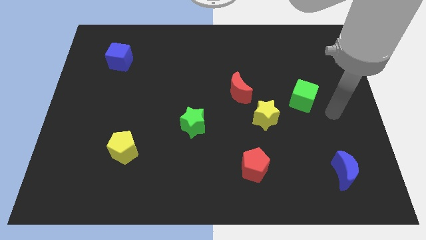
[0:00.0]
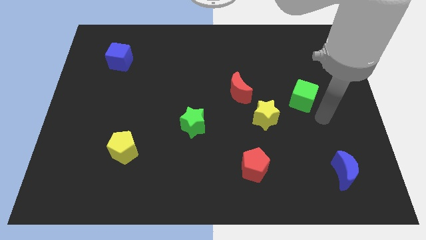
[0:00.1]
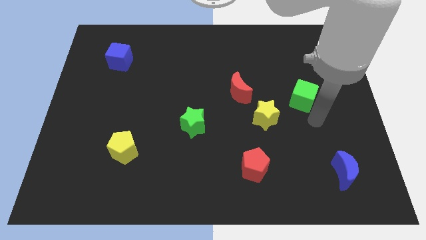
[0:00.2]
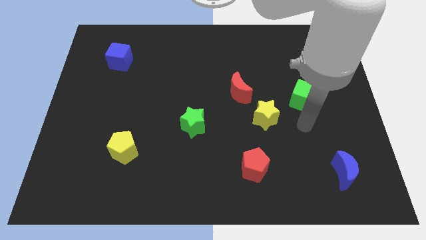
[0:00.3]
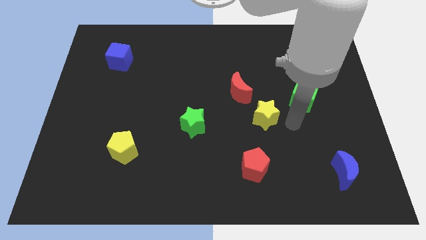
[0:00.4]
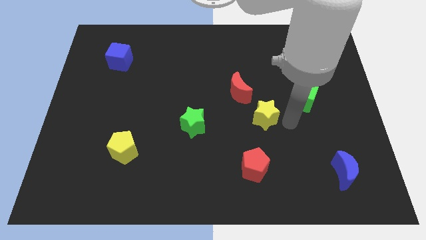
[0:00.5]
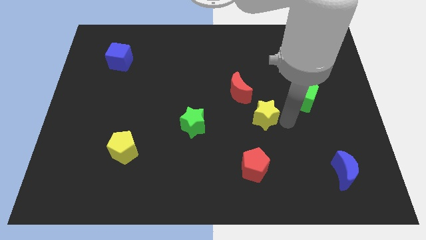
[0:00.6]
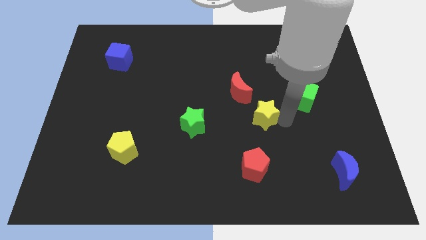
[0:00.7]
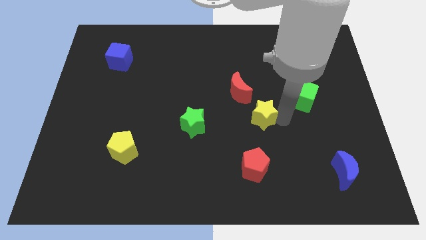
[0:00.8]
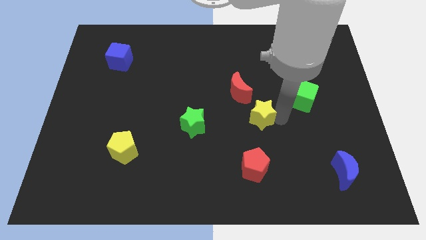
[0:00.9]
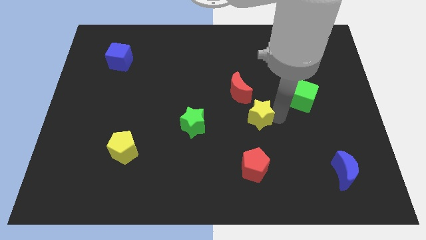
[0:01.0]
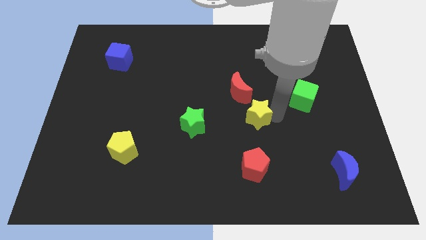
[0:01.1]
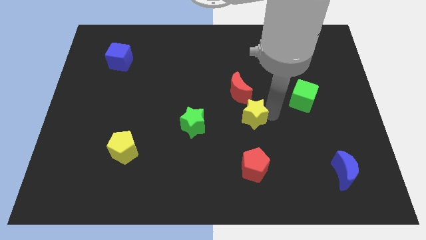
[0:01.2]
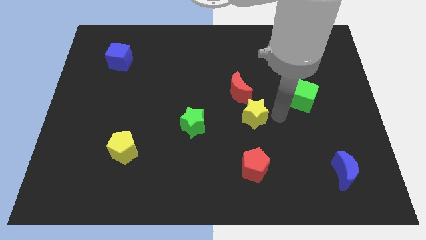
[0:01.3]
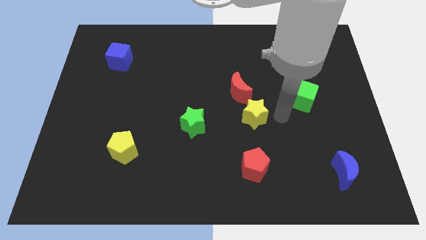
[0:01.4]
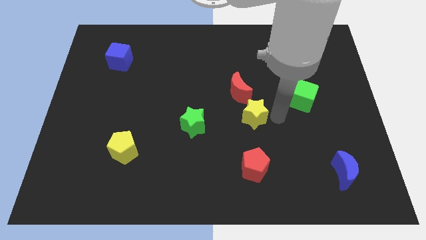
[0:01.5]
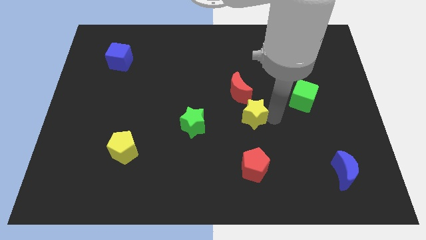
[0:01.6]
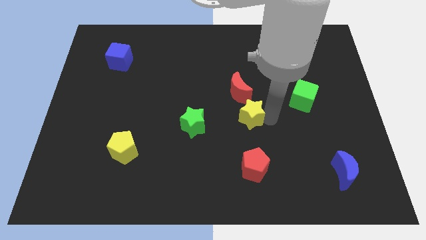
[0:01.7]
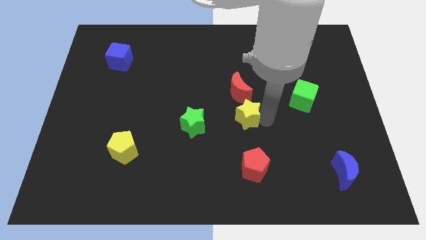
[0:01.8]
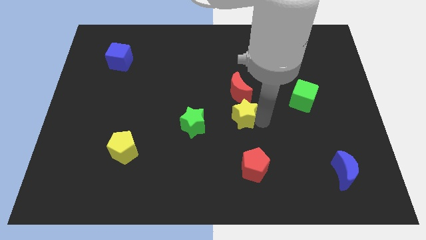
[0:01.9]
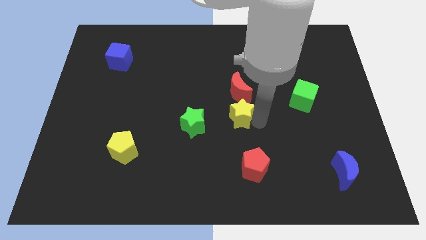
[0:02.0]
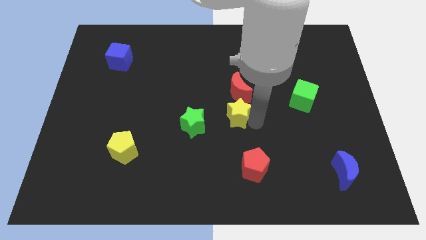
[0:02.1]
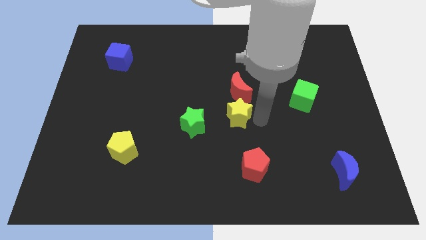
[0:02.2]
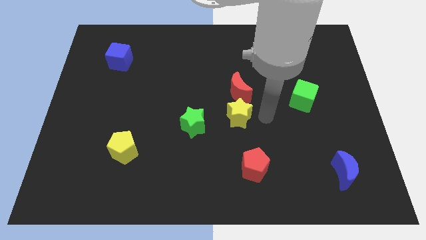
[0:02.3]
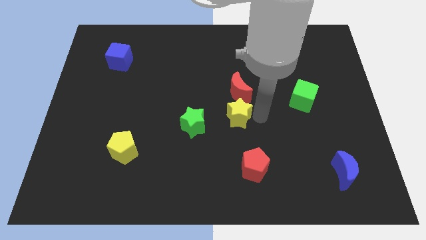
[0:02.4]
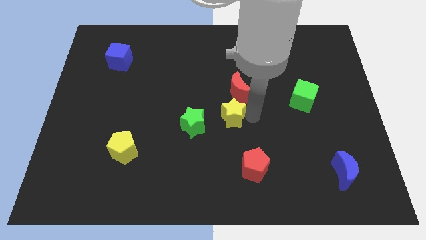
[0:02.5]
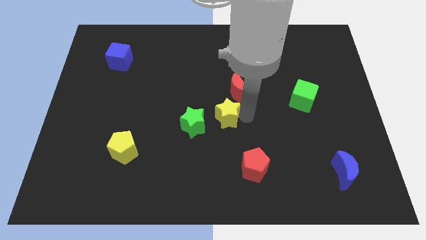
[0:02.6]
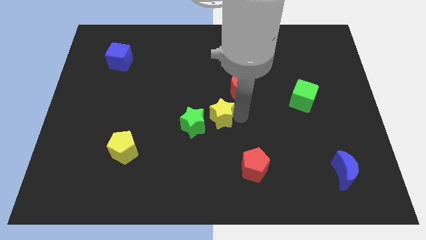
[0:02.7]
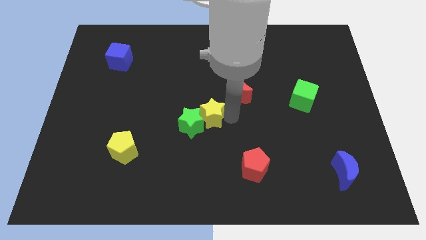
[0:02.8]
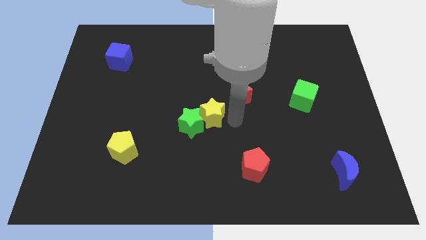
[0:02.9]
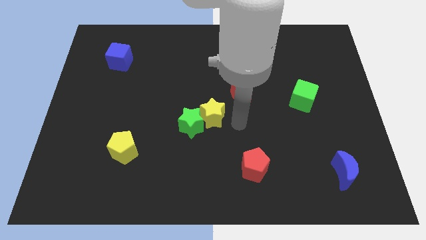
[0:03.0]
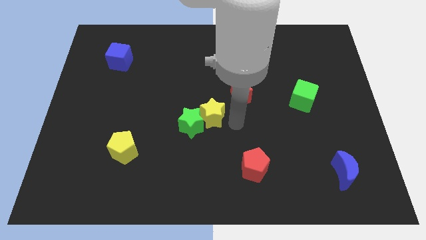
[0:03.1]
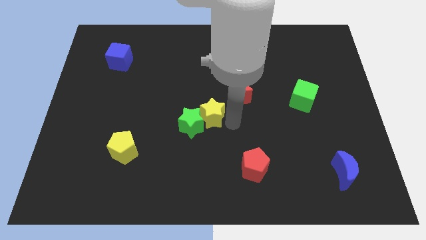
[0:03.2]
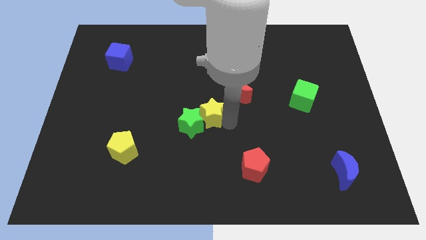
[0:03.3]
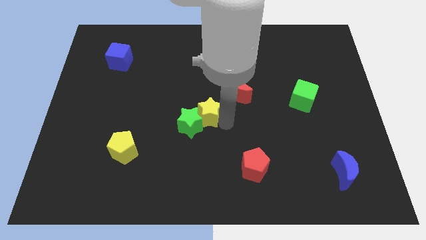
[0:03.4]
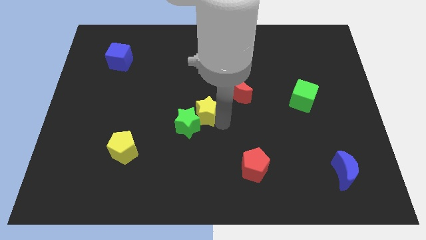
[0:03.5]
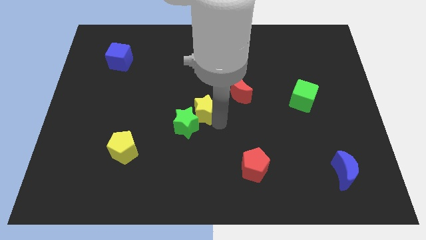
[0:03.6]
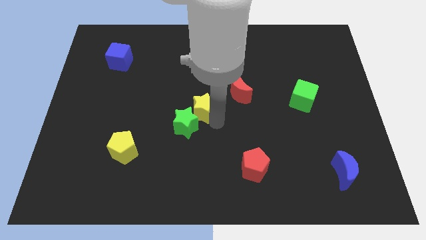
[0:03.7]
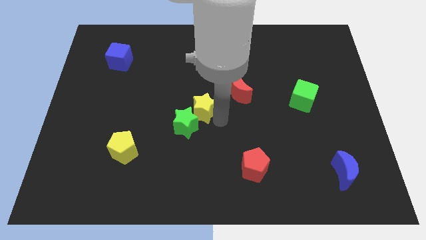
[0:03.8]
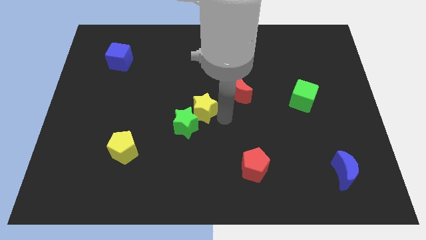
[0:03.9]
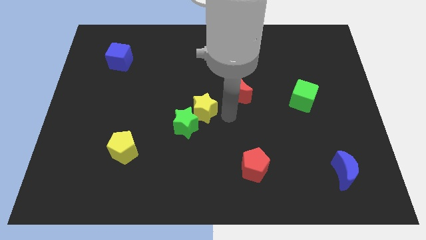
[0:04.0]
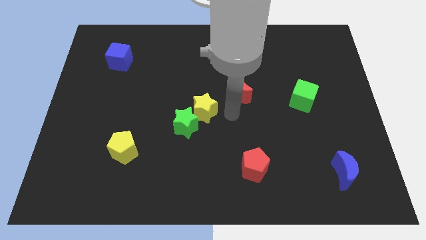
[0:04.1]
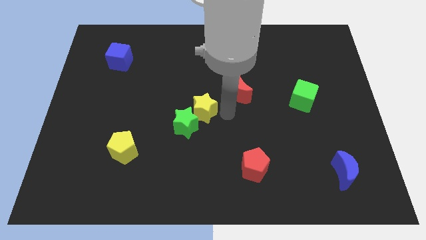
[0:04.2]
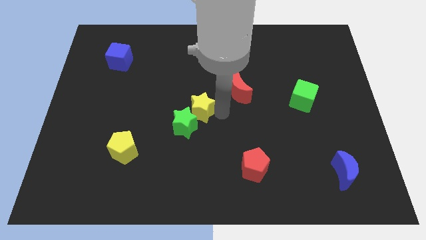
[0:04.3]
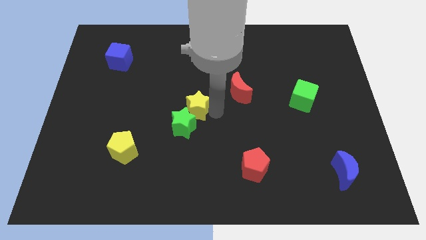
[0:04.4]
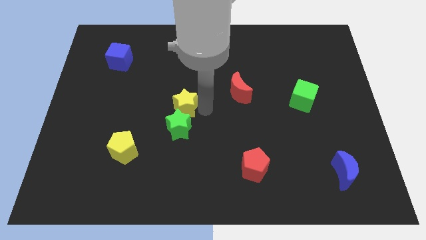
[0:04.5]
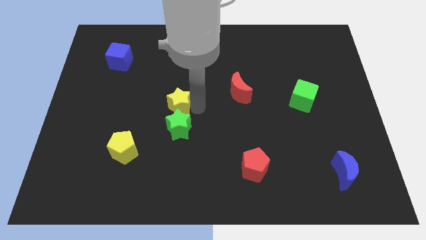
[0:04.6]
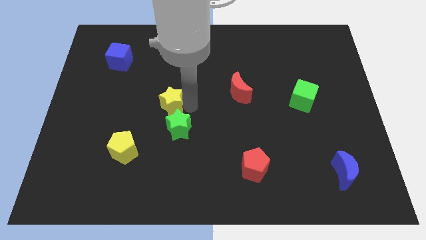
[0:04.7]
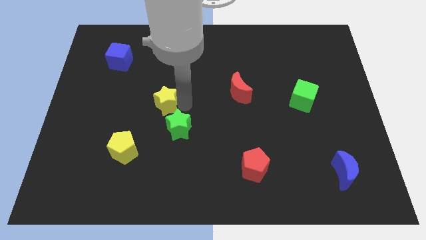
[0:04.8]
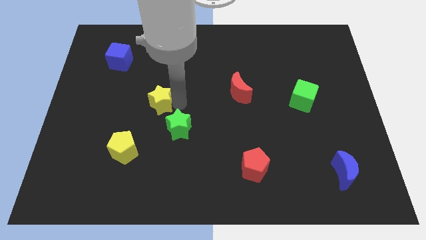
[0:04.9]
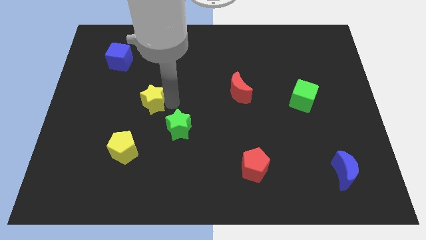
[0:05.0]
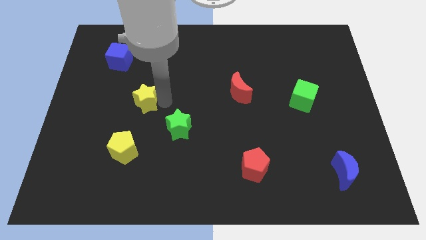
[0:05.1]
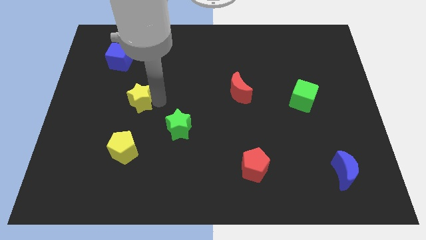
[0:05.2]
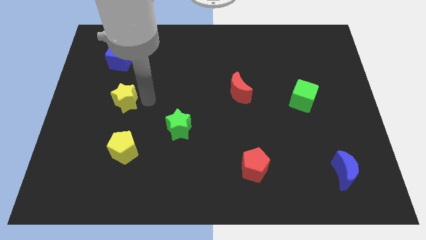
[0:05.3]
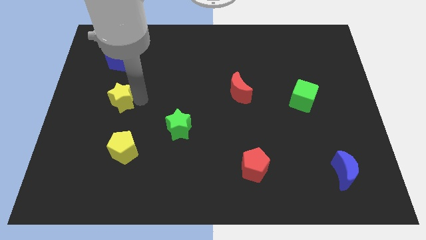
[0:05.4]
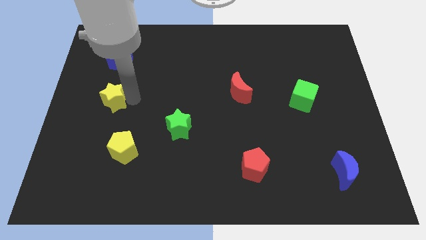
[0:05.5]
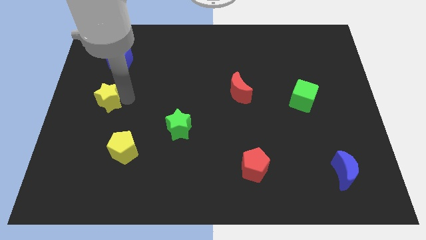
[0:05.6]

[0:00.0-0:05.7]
slide the yellow star to the left side

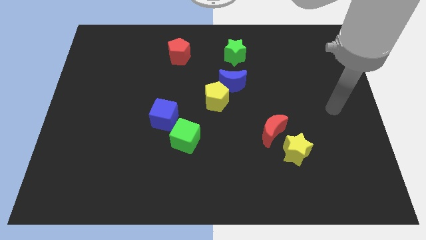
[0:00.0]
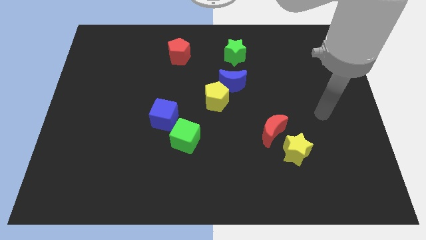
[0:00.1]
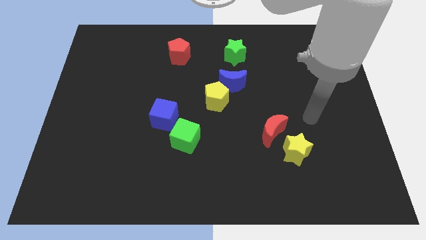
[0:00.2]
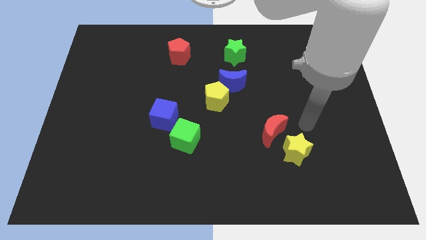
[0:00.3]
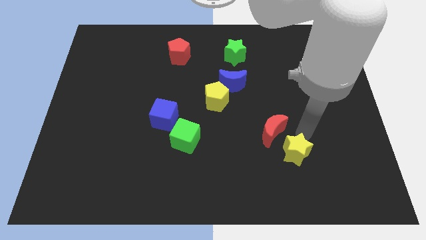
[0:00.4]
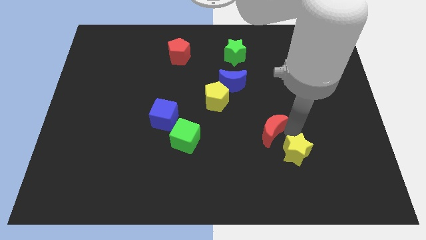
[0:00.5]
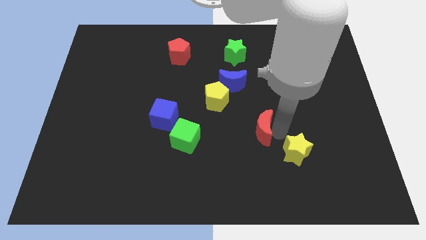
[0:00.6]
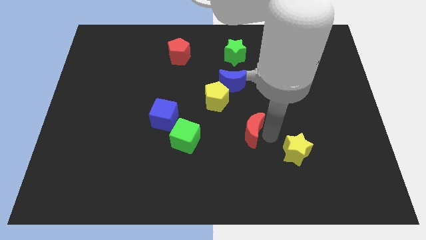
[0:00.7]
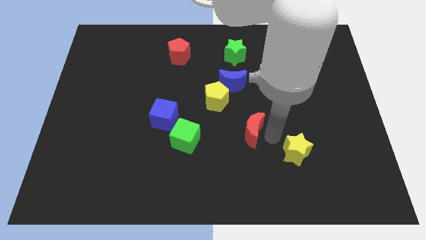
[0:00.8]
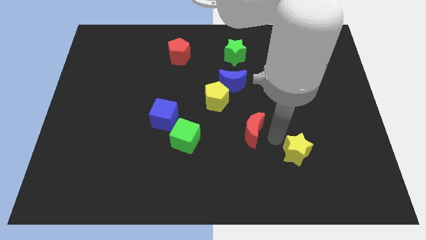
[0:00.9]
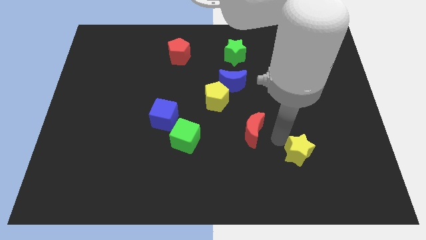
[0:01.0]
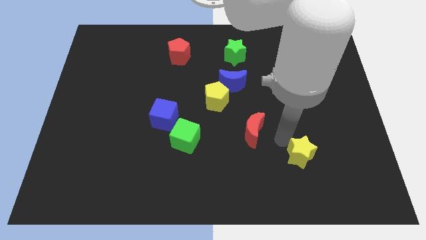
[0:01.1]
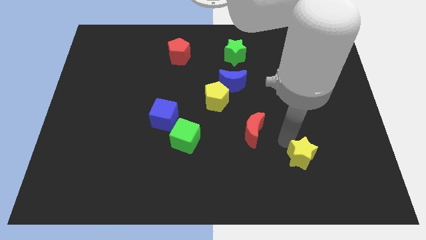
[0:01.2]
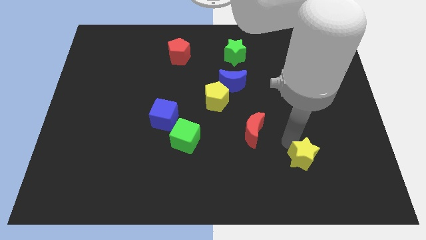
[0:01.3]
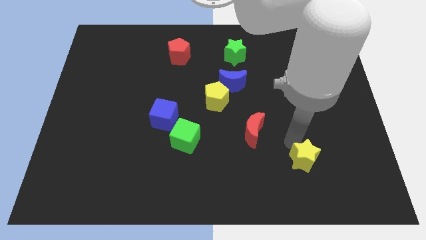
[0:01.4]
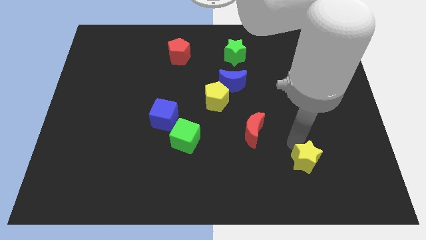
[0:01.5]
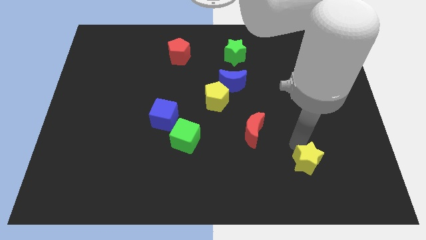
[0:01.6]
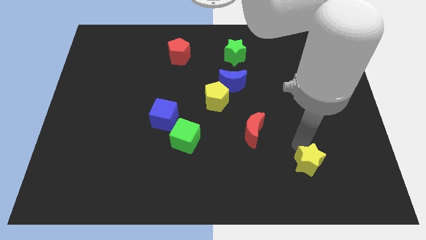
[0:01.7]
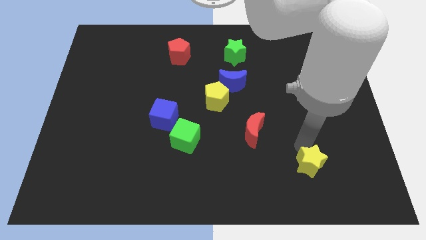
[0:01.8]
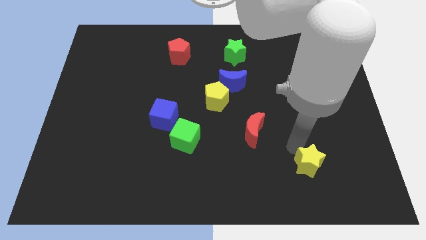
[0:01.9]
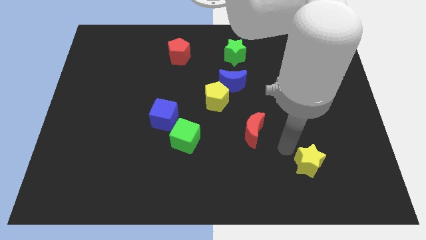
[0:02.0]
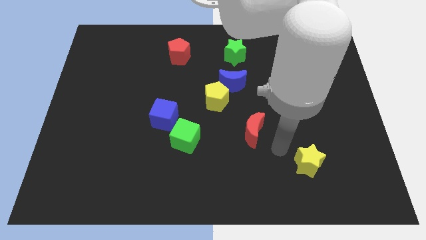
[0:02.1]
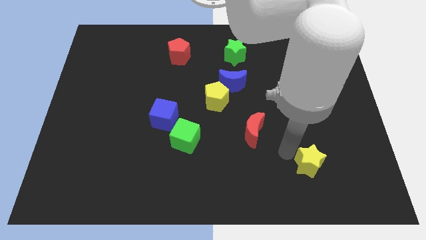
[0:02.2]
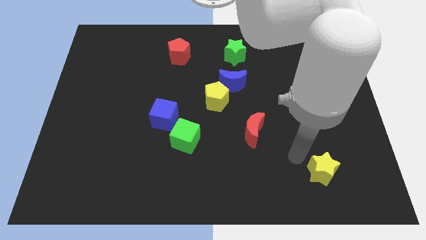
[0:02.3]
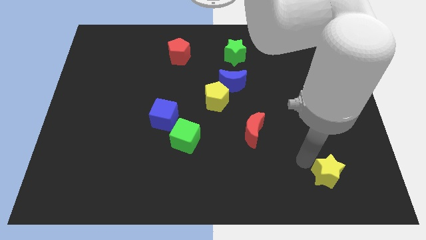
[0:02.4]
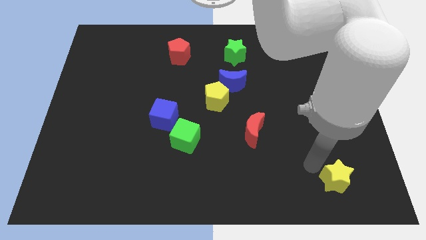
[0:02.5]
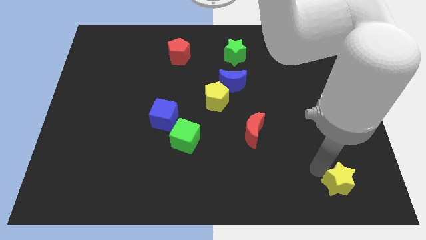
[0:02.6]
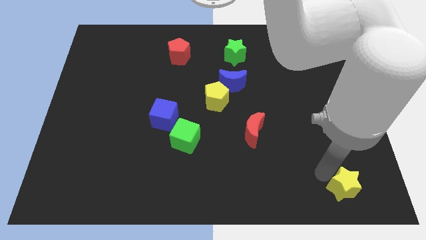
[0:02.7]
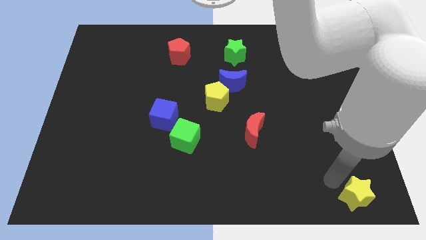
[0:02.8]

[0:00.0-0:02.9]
slide the yellow star to the bottom right corner
